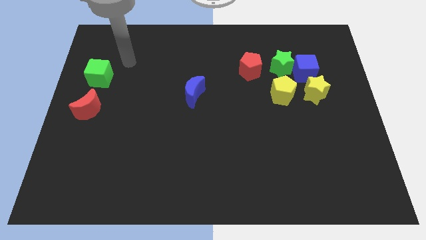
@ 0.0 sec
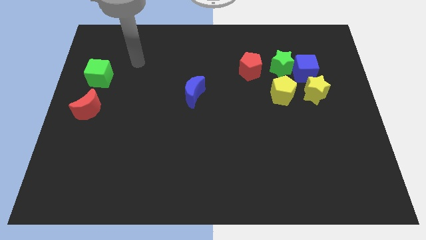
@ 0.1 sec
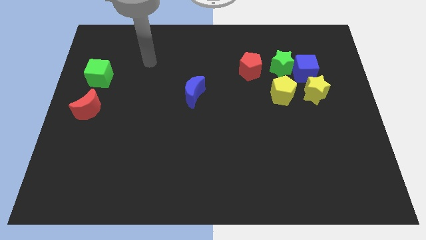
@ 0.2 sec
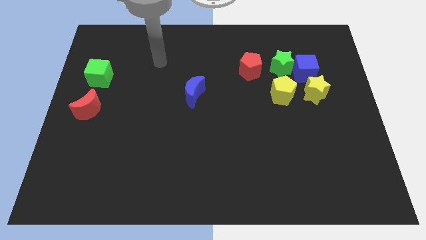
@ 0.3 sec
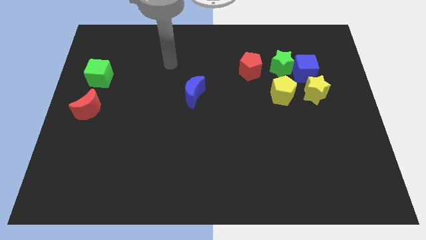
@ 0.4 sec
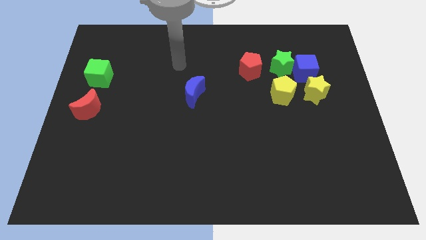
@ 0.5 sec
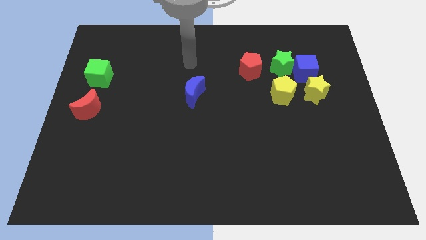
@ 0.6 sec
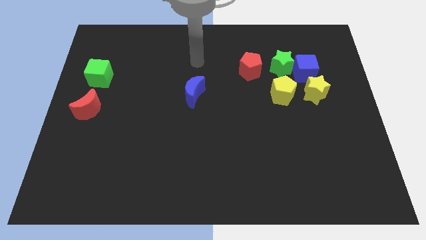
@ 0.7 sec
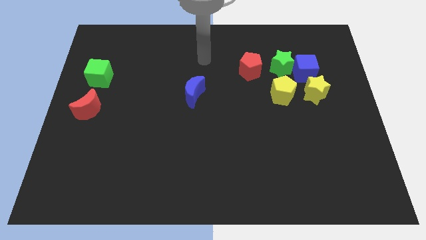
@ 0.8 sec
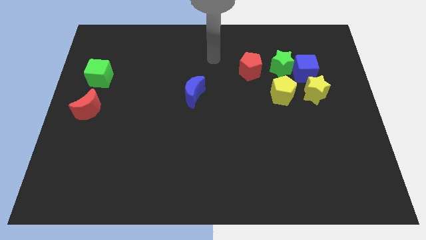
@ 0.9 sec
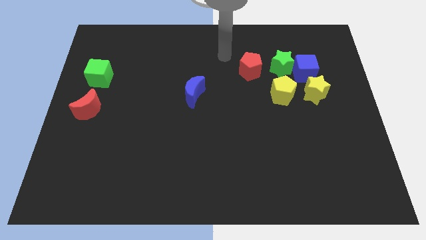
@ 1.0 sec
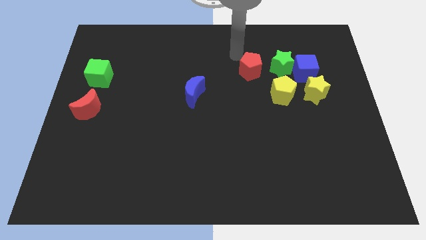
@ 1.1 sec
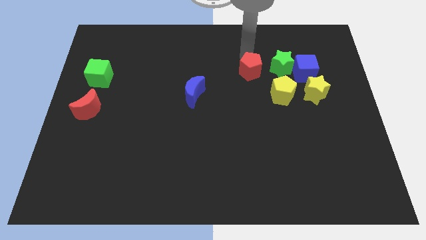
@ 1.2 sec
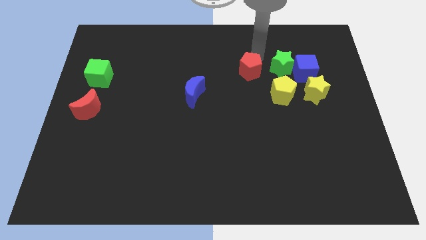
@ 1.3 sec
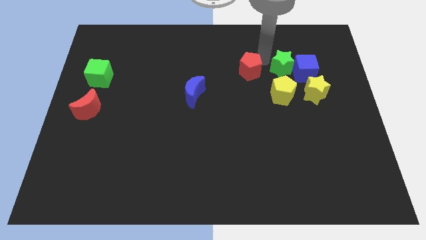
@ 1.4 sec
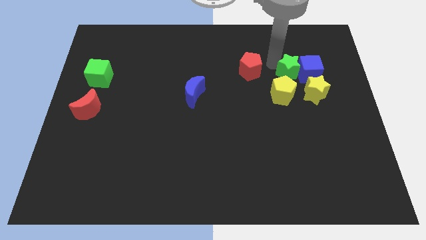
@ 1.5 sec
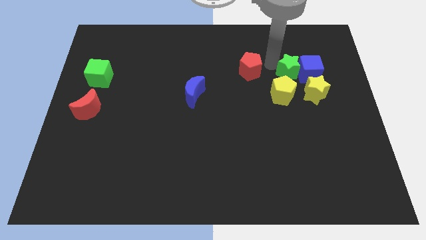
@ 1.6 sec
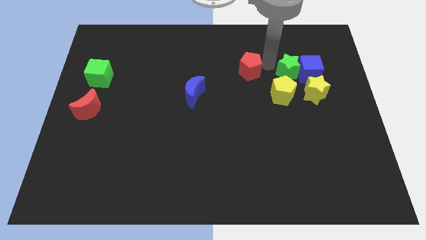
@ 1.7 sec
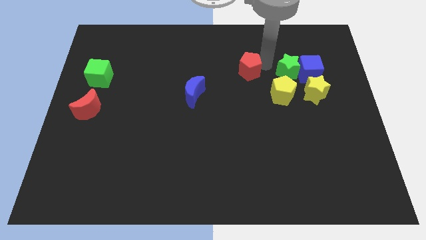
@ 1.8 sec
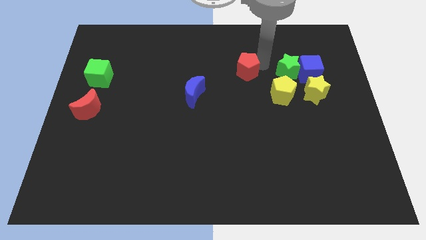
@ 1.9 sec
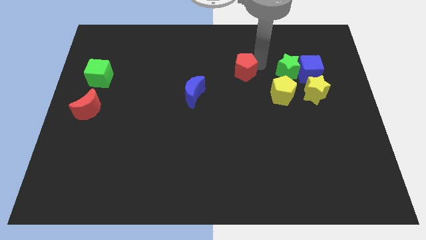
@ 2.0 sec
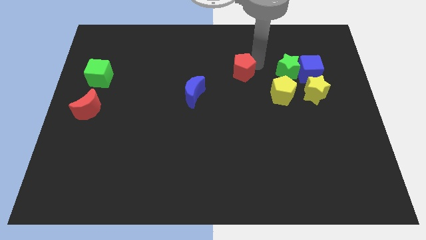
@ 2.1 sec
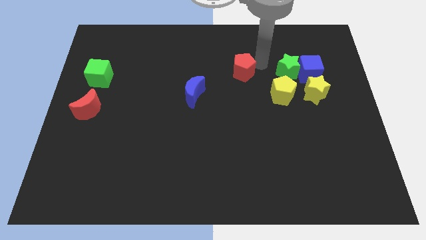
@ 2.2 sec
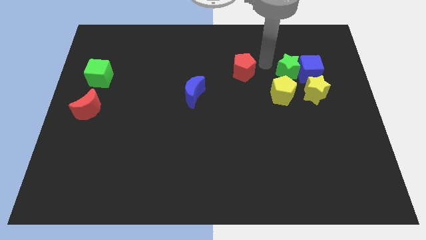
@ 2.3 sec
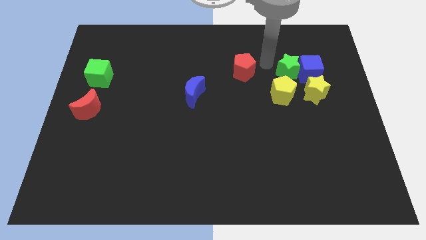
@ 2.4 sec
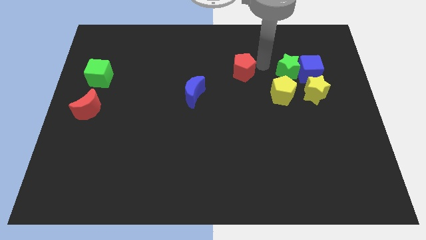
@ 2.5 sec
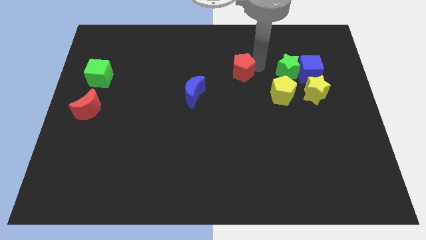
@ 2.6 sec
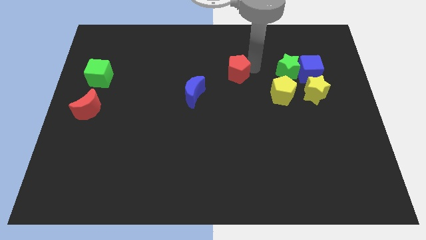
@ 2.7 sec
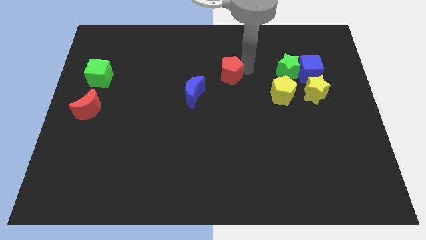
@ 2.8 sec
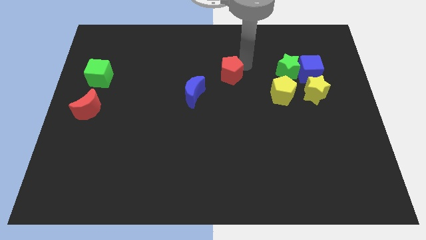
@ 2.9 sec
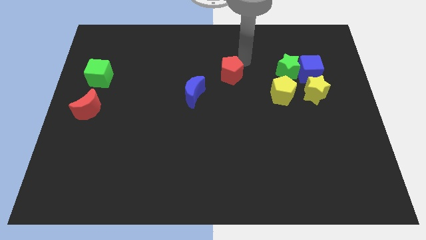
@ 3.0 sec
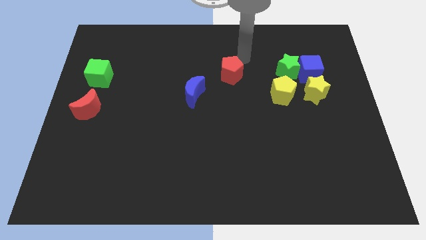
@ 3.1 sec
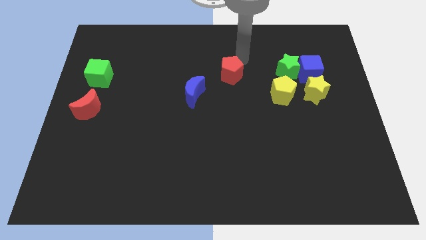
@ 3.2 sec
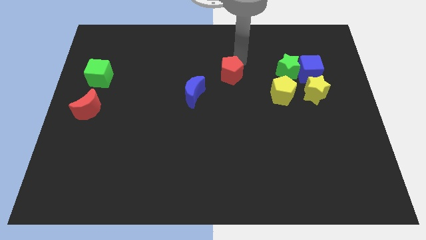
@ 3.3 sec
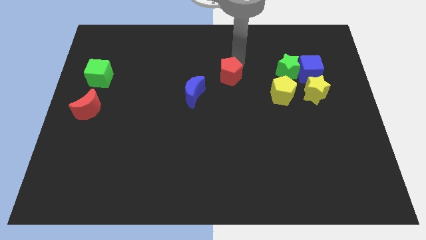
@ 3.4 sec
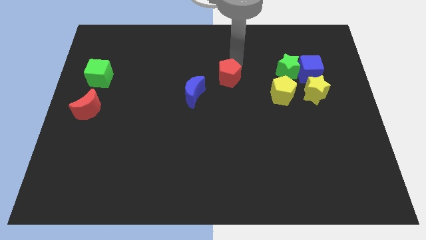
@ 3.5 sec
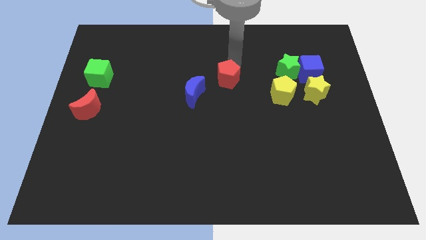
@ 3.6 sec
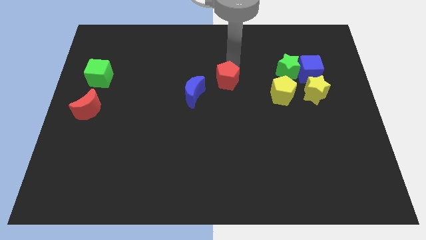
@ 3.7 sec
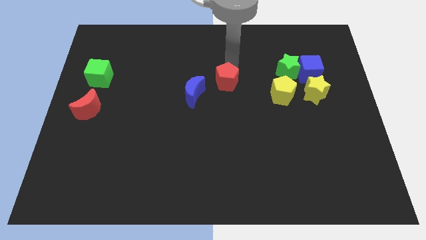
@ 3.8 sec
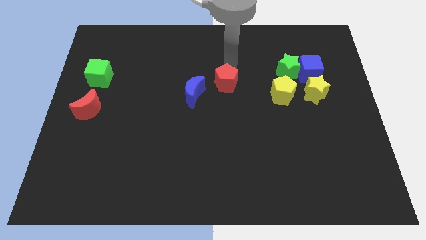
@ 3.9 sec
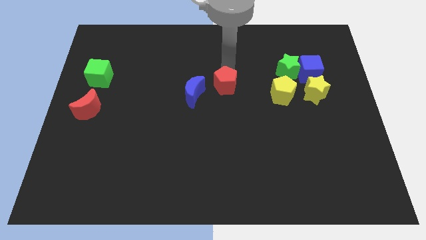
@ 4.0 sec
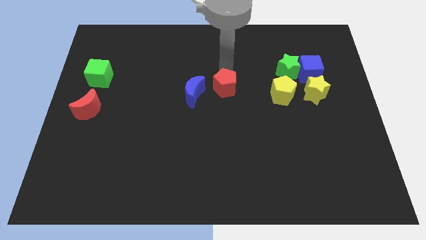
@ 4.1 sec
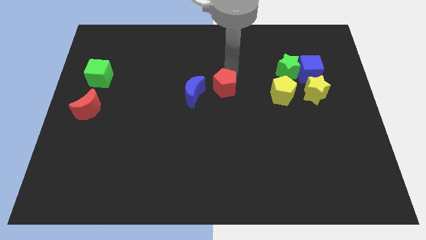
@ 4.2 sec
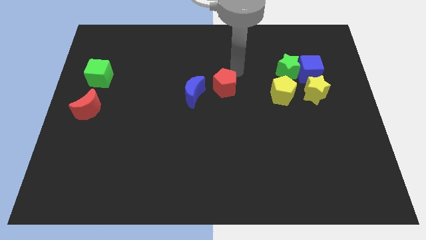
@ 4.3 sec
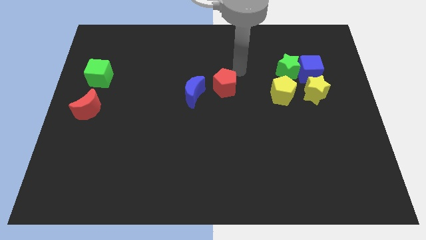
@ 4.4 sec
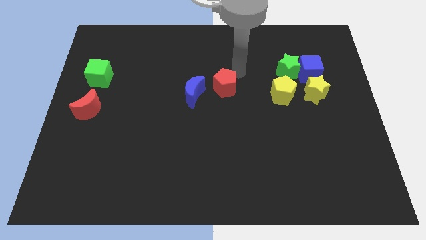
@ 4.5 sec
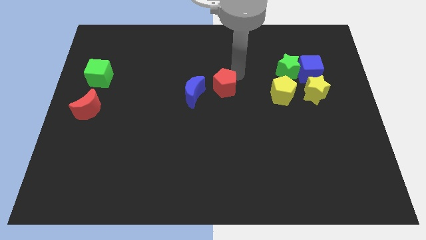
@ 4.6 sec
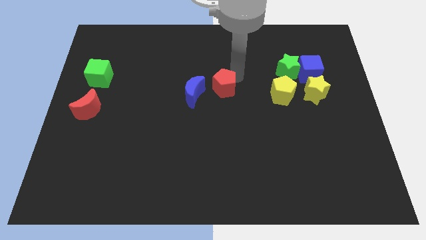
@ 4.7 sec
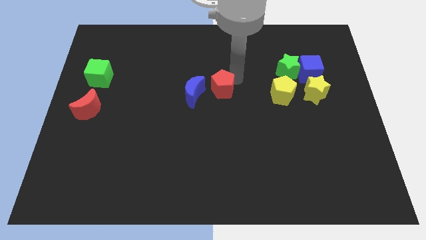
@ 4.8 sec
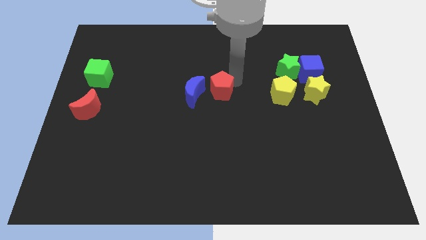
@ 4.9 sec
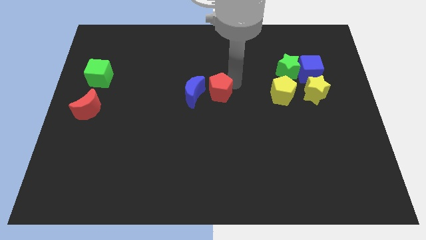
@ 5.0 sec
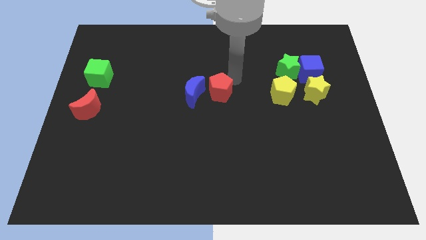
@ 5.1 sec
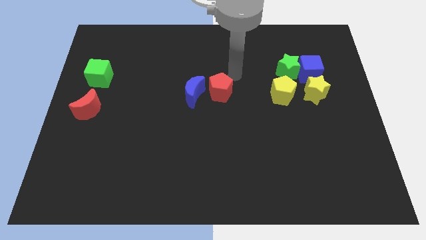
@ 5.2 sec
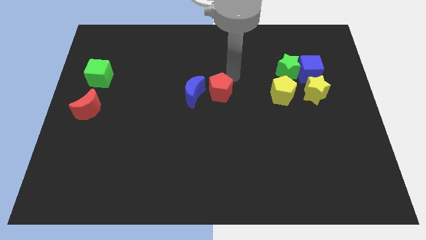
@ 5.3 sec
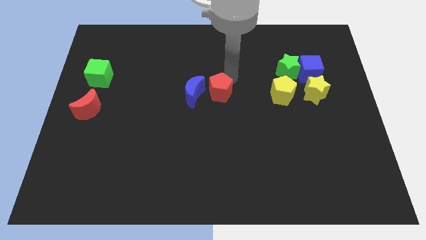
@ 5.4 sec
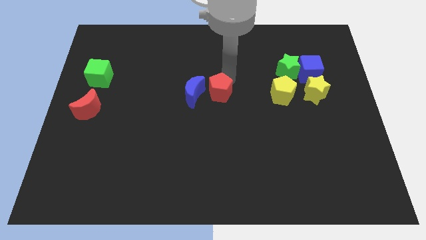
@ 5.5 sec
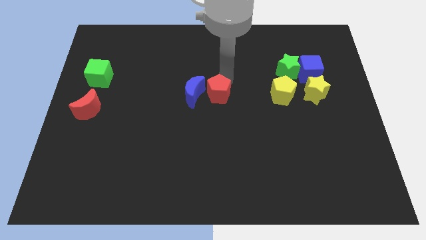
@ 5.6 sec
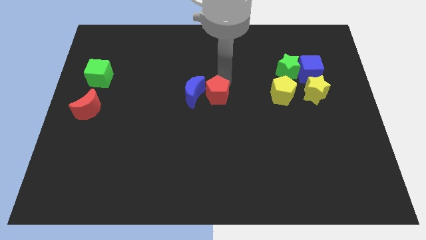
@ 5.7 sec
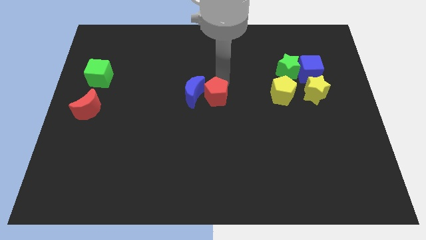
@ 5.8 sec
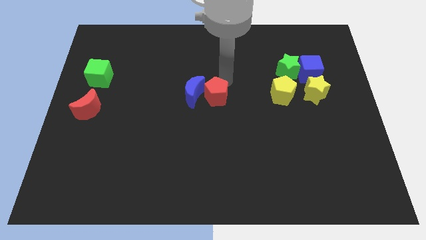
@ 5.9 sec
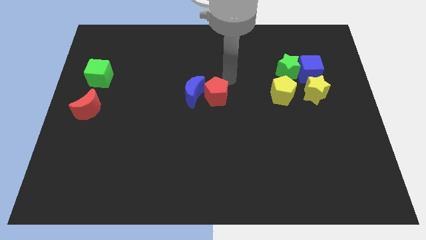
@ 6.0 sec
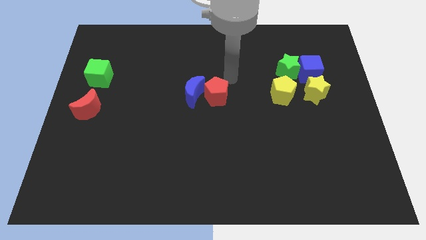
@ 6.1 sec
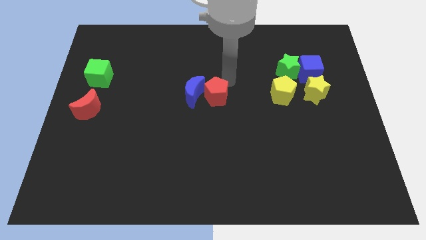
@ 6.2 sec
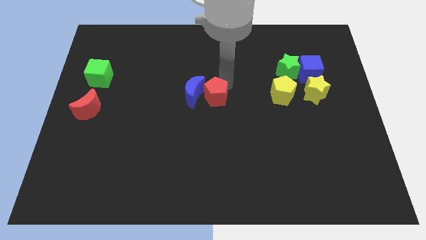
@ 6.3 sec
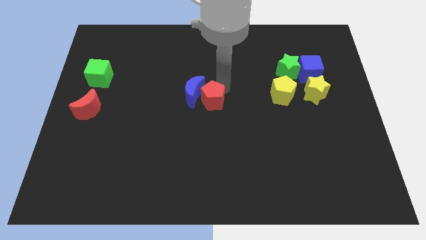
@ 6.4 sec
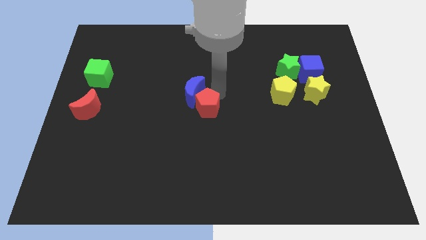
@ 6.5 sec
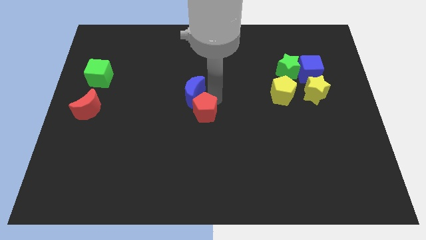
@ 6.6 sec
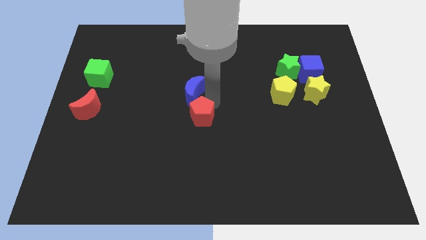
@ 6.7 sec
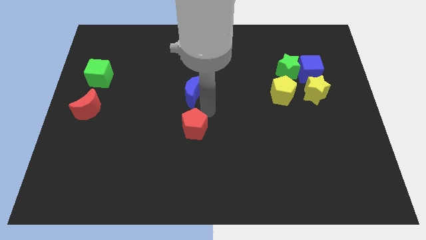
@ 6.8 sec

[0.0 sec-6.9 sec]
slide the red pentagon diagonally down and to the left

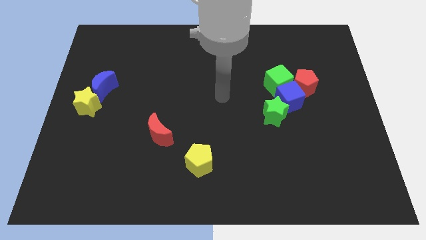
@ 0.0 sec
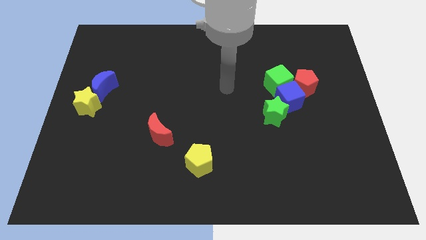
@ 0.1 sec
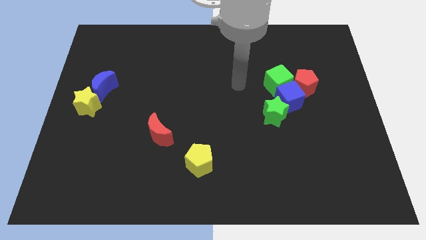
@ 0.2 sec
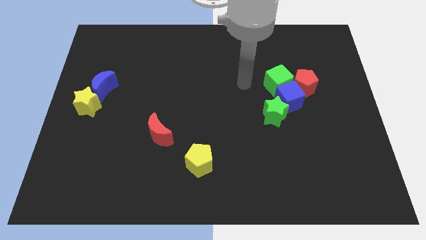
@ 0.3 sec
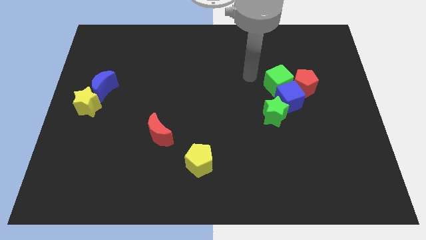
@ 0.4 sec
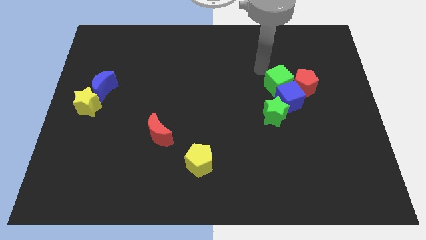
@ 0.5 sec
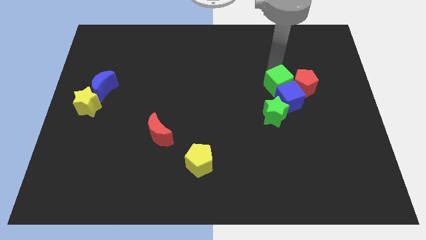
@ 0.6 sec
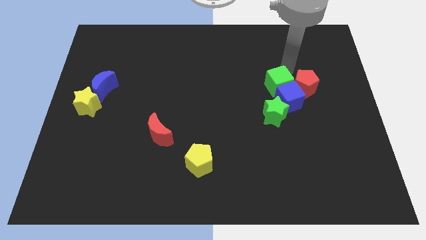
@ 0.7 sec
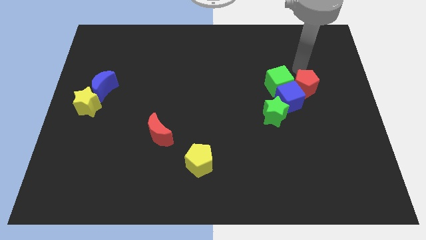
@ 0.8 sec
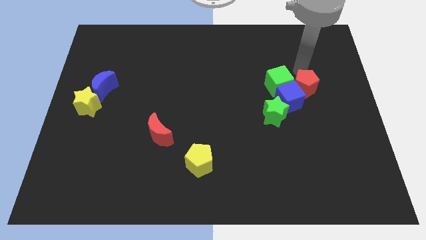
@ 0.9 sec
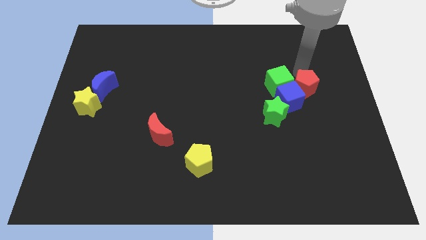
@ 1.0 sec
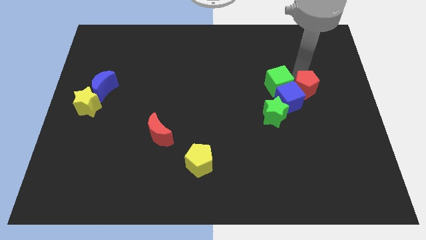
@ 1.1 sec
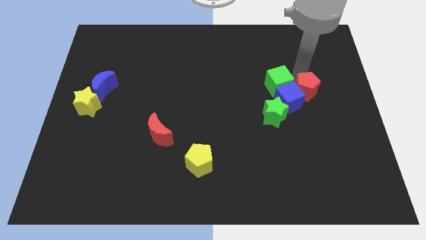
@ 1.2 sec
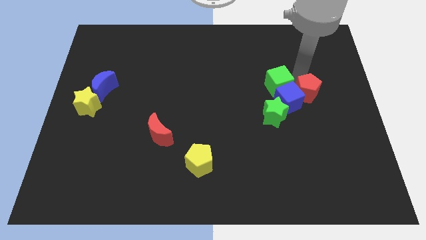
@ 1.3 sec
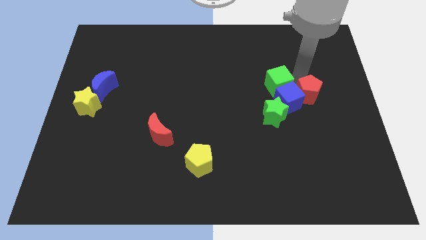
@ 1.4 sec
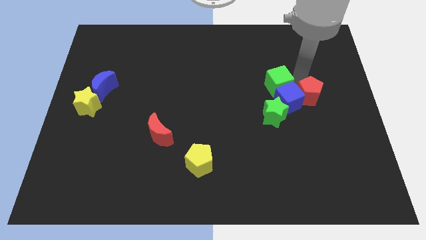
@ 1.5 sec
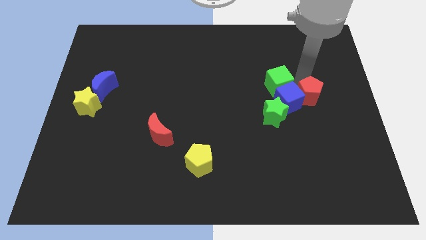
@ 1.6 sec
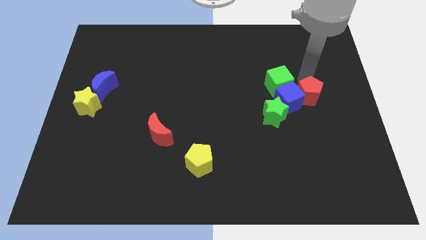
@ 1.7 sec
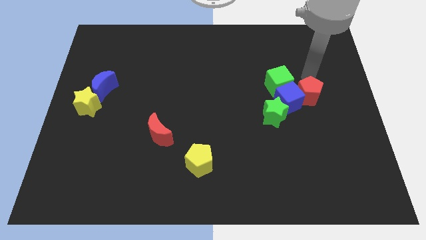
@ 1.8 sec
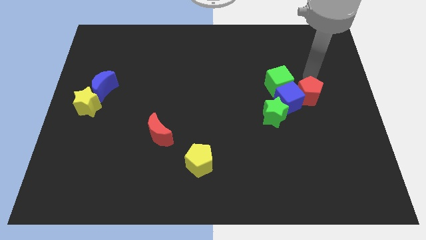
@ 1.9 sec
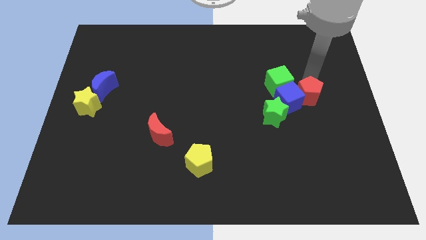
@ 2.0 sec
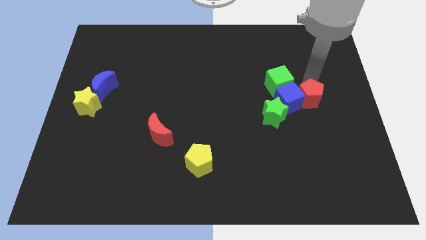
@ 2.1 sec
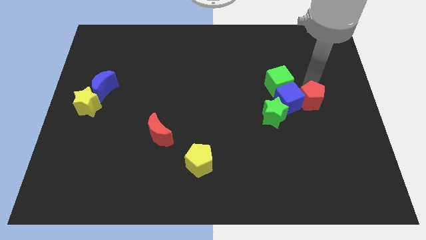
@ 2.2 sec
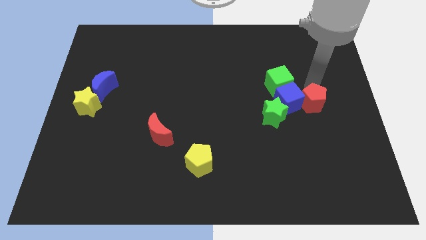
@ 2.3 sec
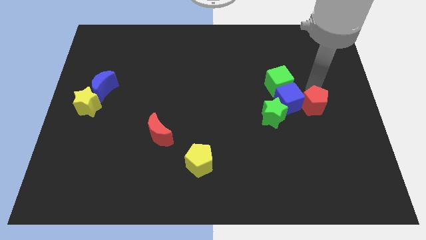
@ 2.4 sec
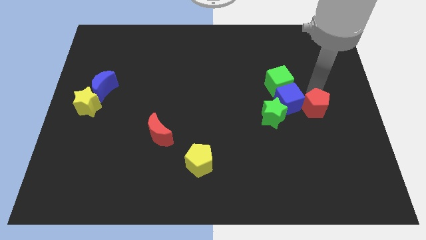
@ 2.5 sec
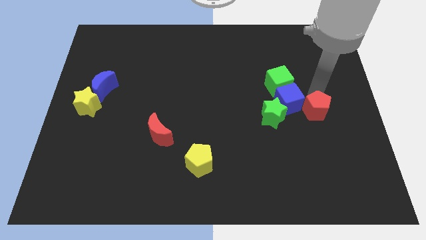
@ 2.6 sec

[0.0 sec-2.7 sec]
slightly push the red pentagon down
